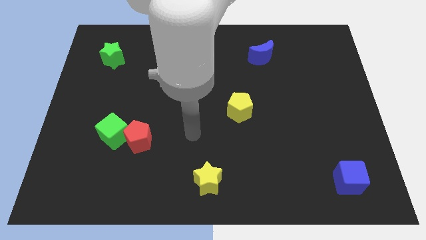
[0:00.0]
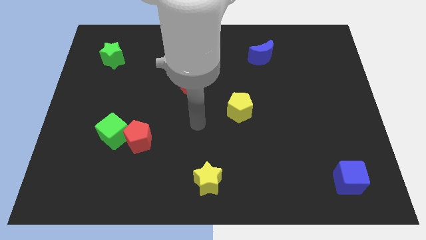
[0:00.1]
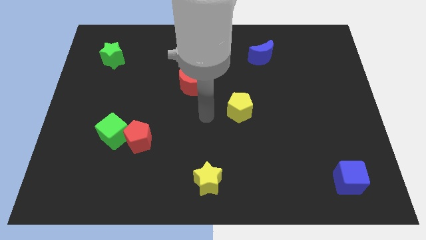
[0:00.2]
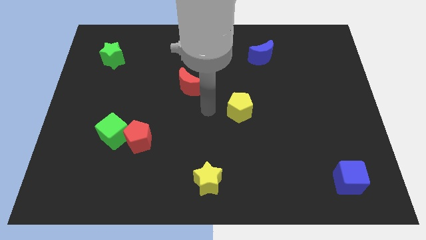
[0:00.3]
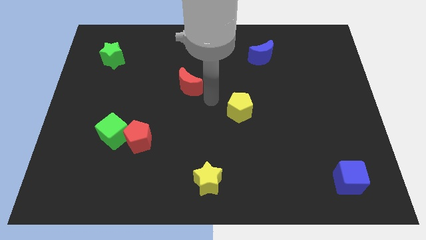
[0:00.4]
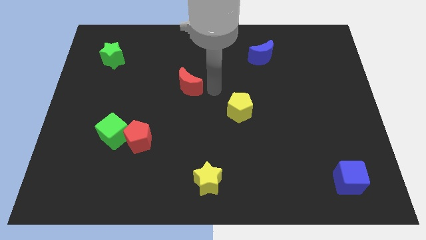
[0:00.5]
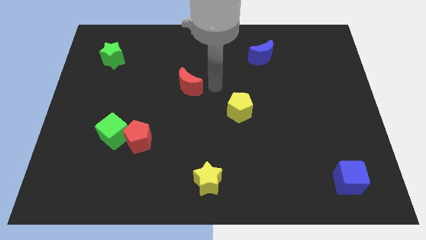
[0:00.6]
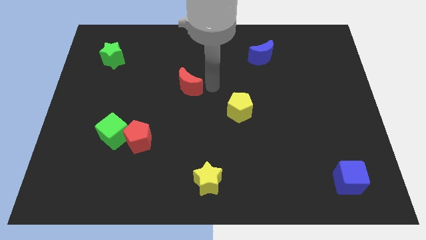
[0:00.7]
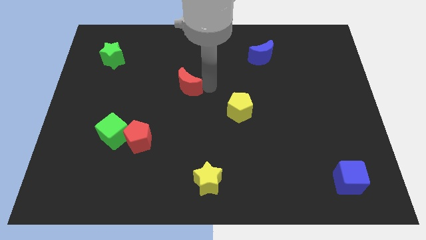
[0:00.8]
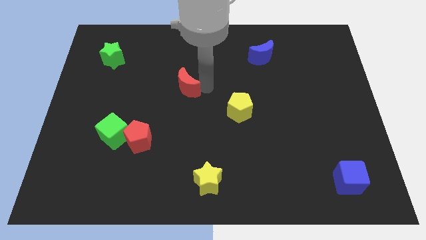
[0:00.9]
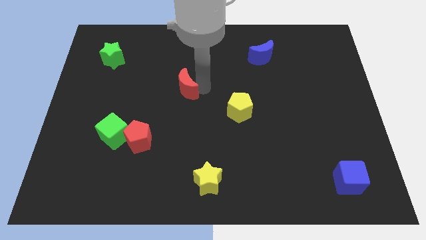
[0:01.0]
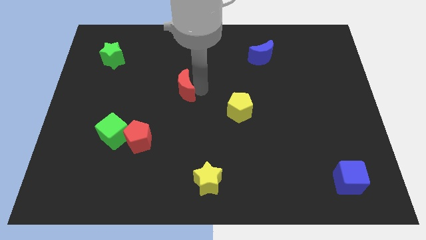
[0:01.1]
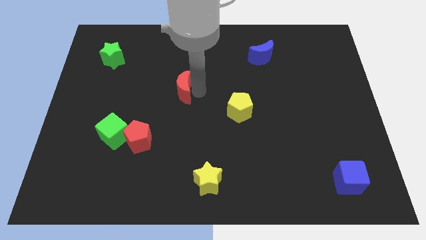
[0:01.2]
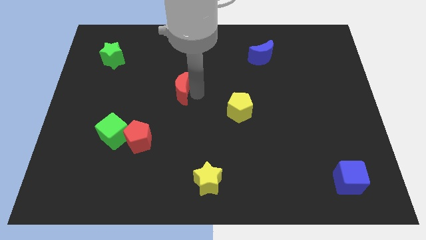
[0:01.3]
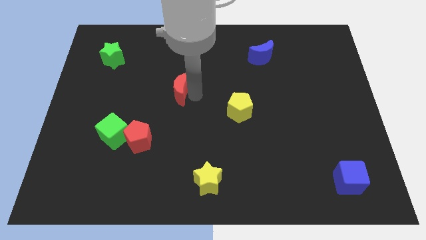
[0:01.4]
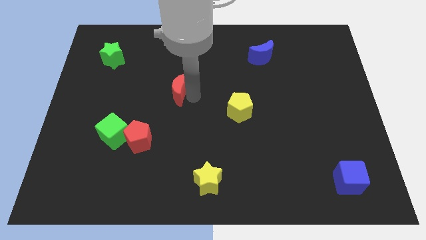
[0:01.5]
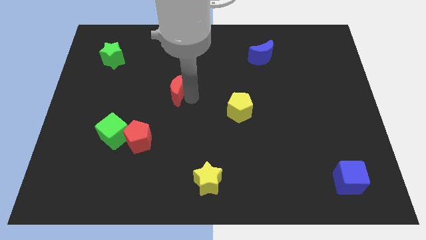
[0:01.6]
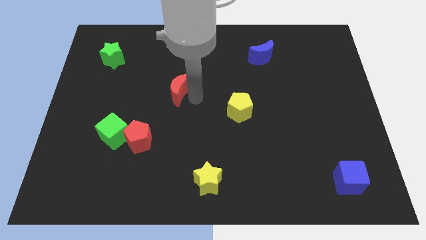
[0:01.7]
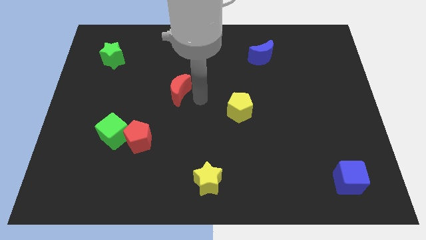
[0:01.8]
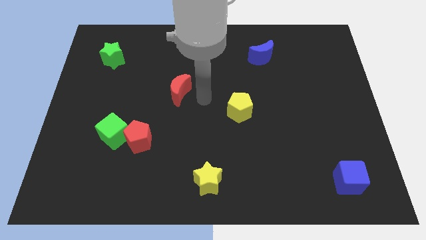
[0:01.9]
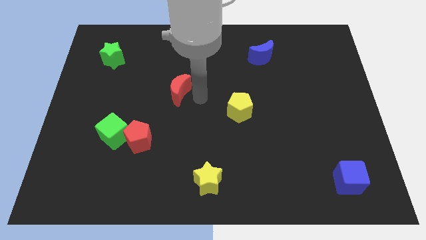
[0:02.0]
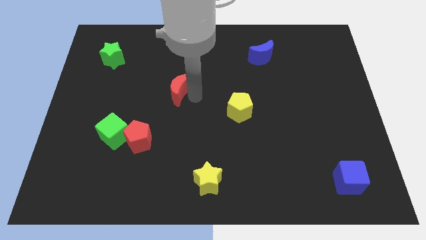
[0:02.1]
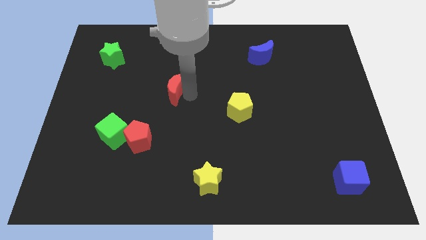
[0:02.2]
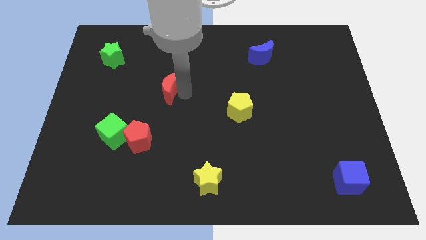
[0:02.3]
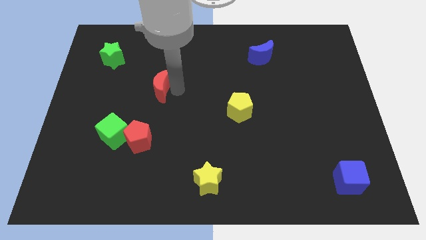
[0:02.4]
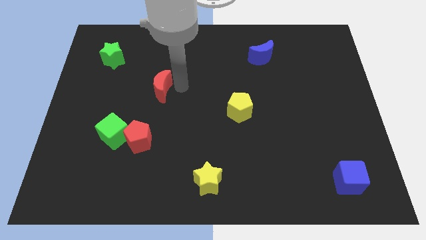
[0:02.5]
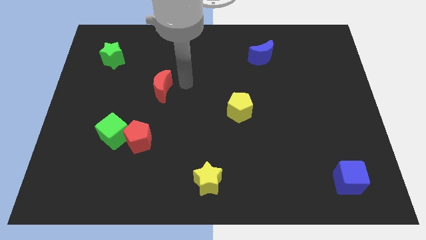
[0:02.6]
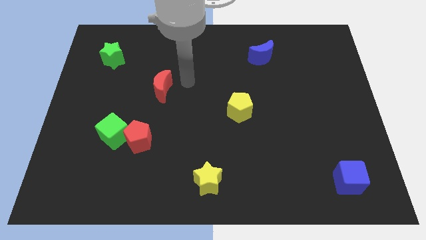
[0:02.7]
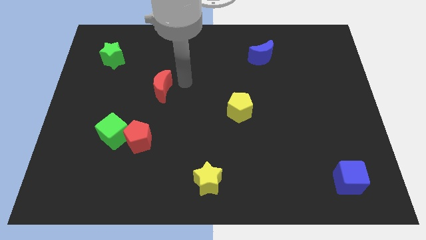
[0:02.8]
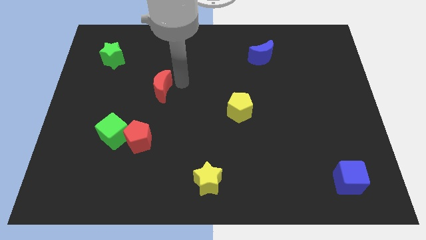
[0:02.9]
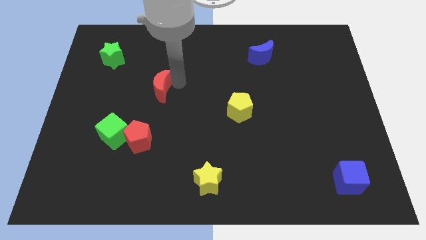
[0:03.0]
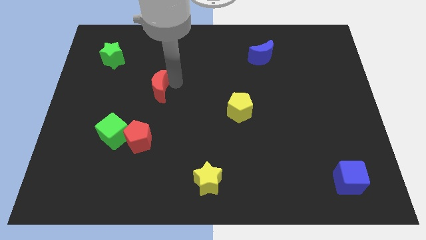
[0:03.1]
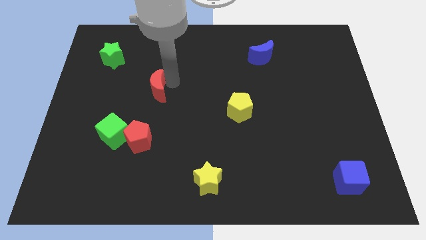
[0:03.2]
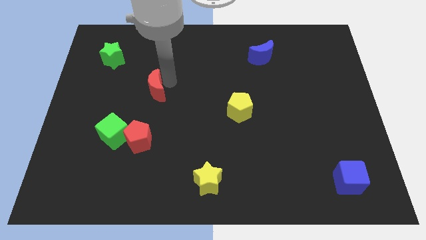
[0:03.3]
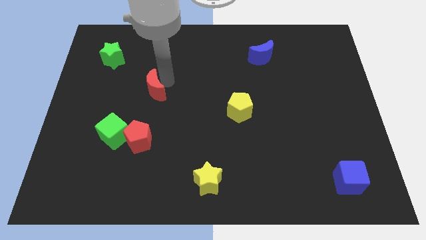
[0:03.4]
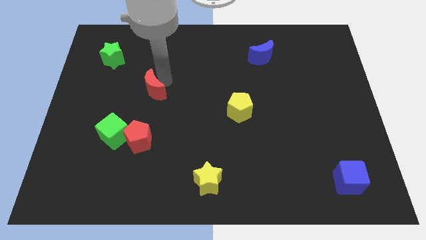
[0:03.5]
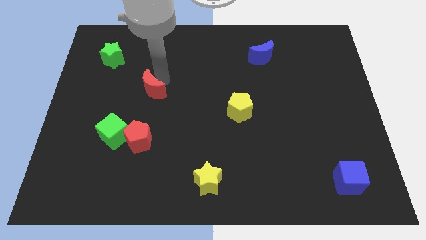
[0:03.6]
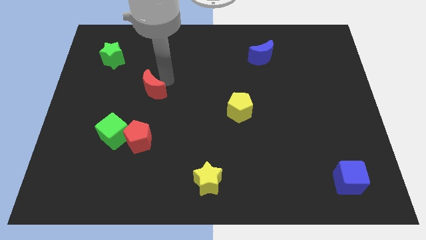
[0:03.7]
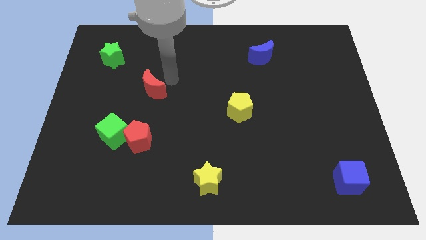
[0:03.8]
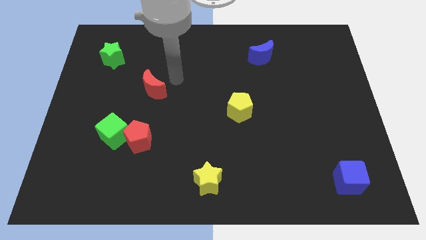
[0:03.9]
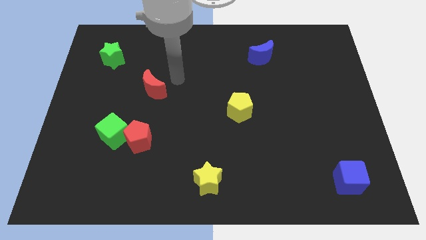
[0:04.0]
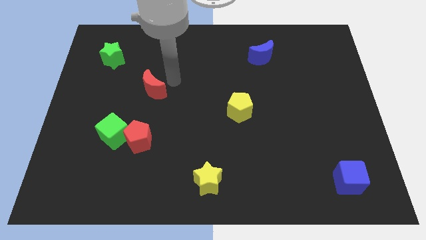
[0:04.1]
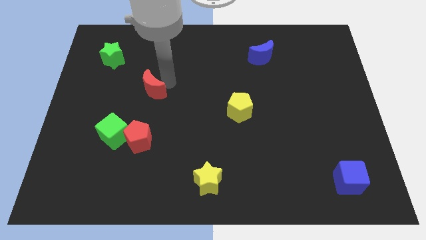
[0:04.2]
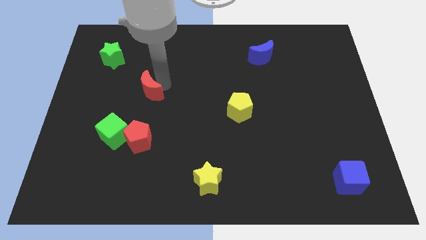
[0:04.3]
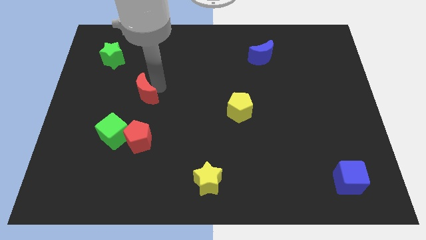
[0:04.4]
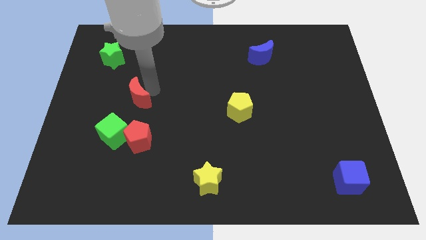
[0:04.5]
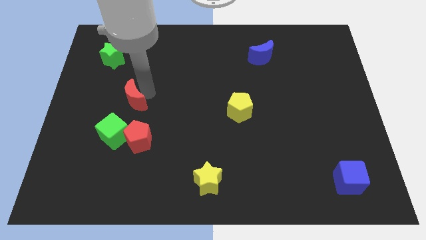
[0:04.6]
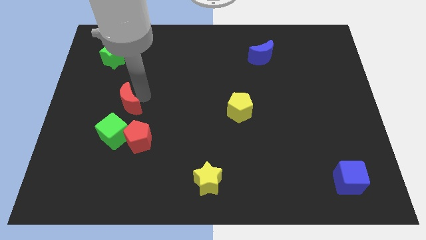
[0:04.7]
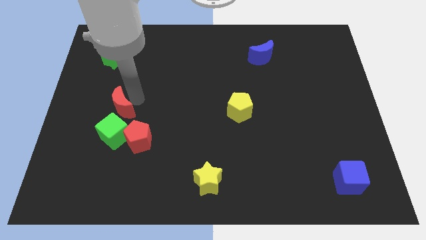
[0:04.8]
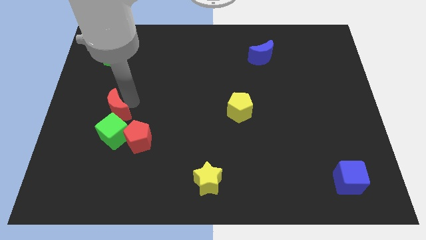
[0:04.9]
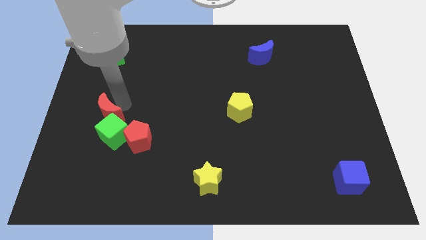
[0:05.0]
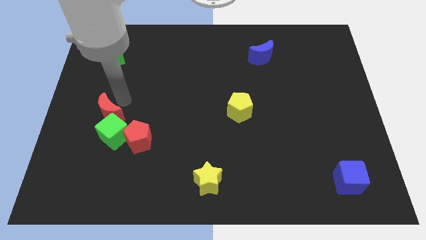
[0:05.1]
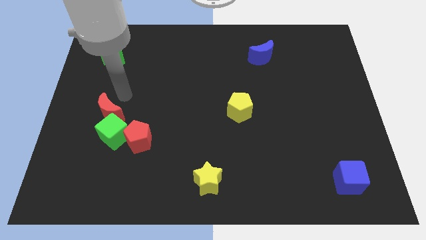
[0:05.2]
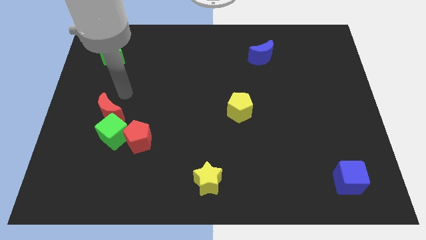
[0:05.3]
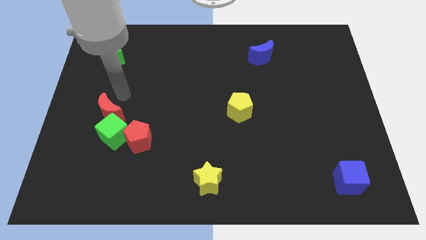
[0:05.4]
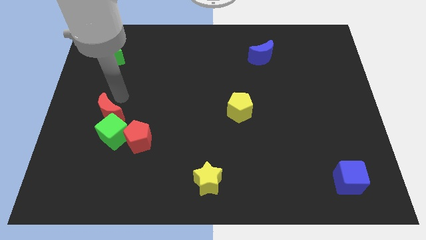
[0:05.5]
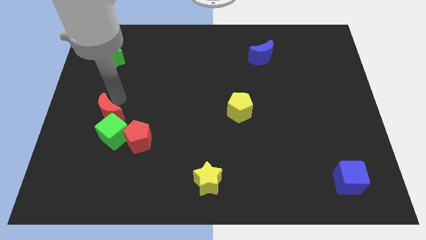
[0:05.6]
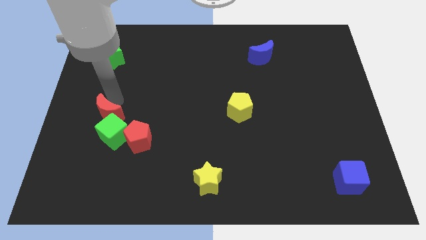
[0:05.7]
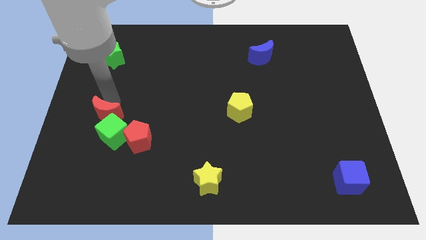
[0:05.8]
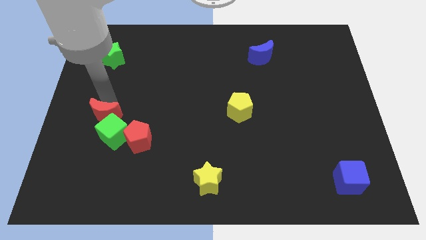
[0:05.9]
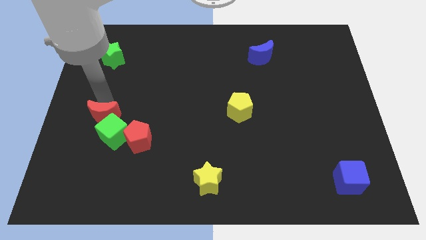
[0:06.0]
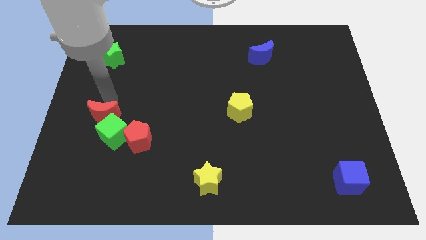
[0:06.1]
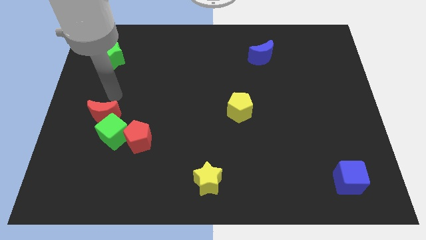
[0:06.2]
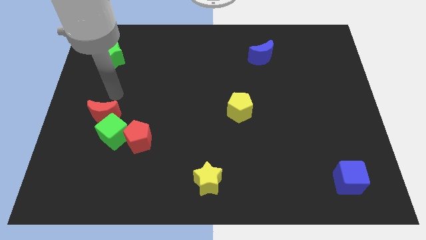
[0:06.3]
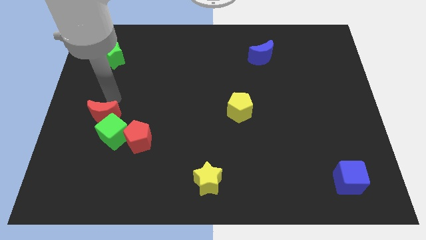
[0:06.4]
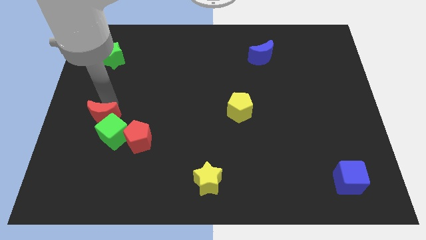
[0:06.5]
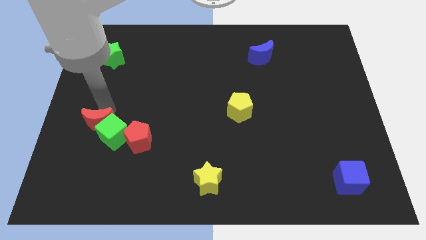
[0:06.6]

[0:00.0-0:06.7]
push the red moon diagonally downwards and to the left

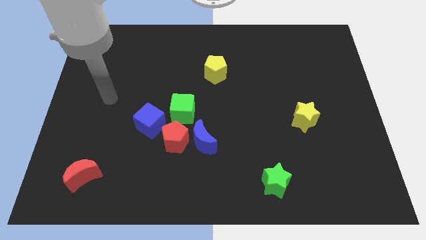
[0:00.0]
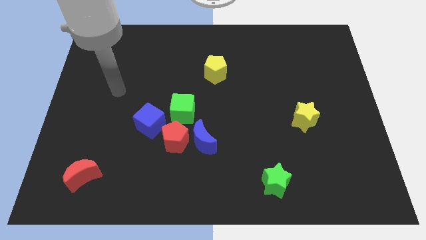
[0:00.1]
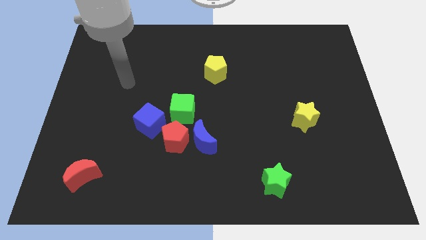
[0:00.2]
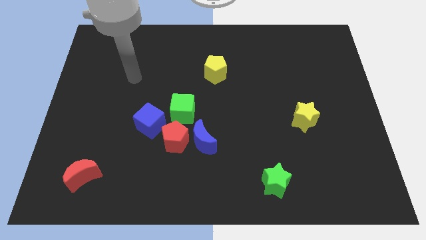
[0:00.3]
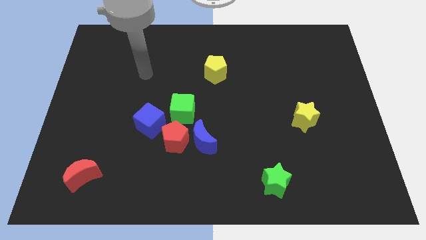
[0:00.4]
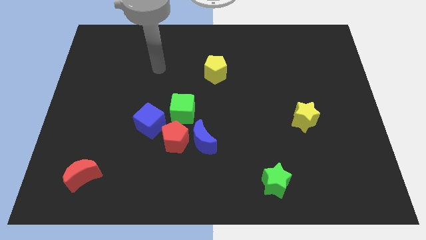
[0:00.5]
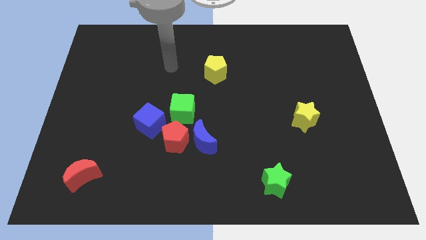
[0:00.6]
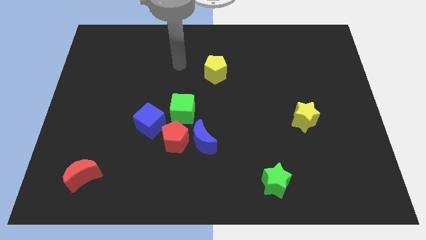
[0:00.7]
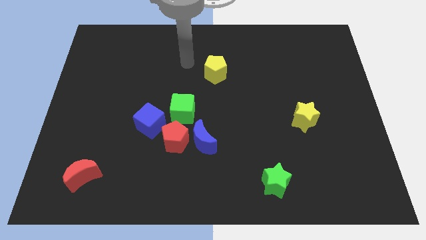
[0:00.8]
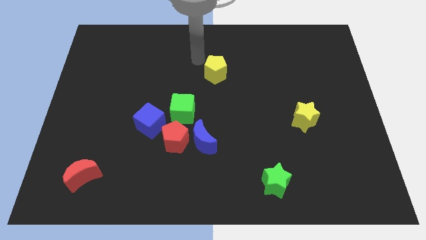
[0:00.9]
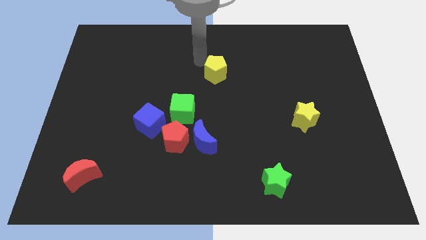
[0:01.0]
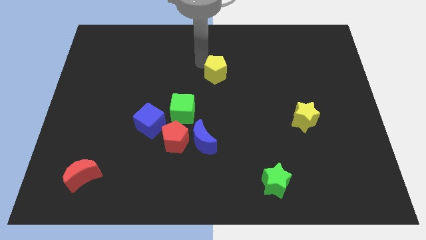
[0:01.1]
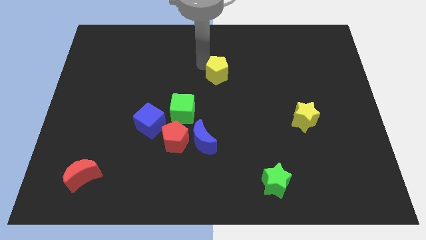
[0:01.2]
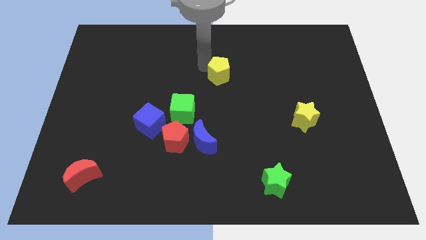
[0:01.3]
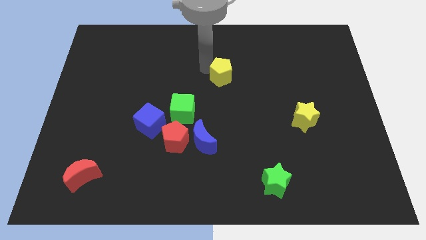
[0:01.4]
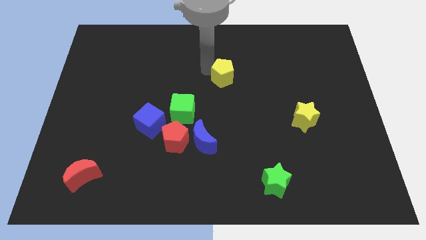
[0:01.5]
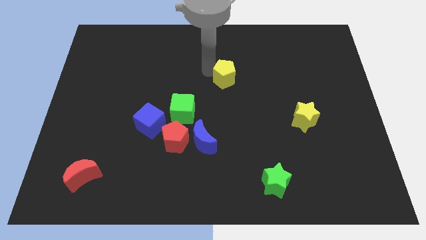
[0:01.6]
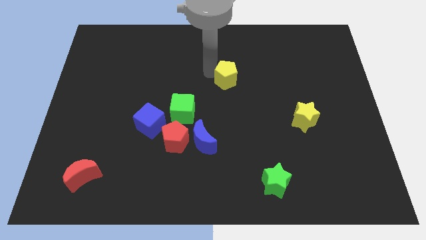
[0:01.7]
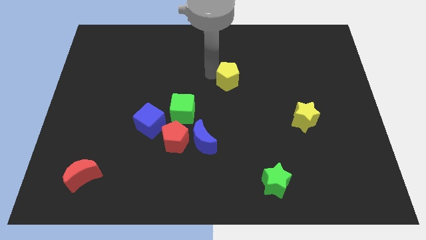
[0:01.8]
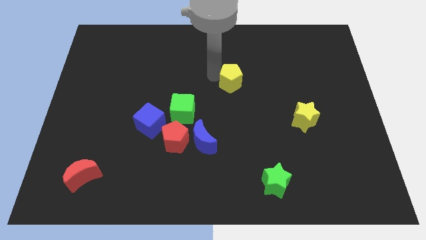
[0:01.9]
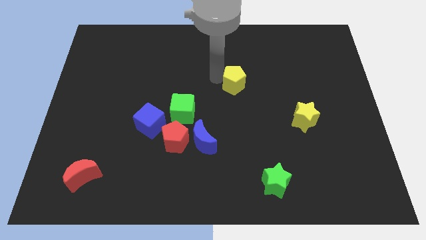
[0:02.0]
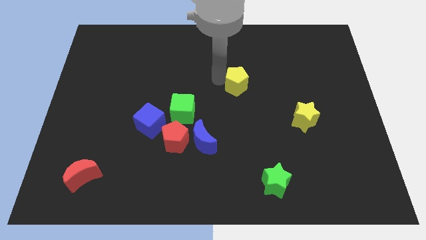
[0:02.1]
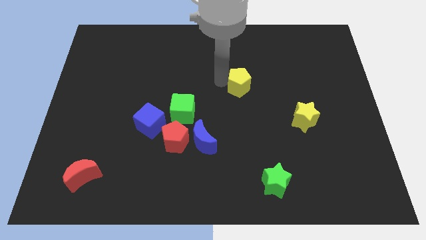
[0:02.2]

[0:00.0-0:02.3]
slightly slide the yellow pentagon diagonally downwards and right
